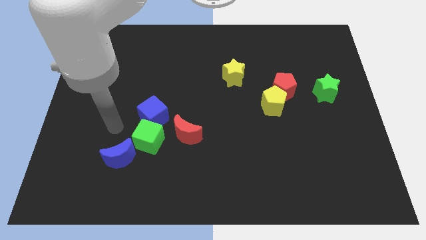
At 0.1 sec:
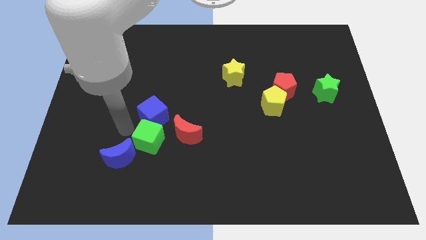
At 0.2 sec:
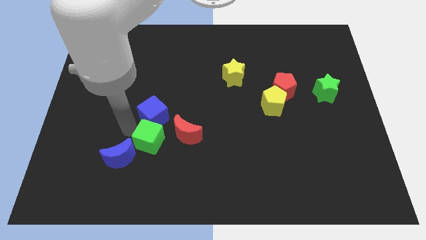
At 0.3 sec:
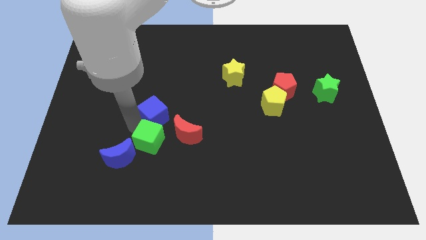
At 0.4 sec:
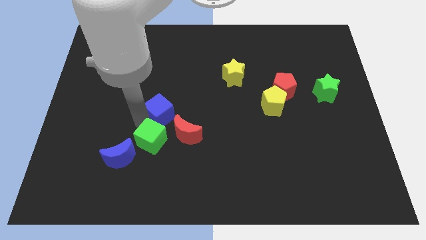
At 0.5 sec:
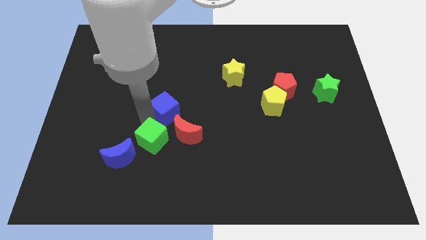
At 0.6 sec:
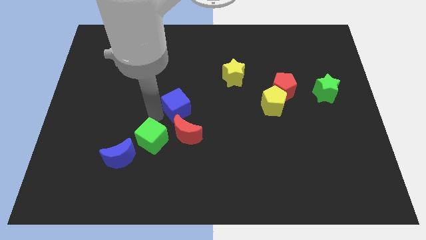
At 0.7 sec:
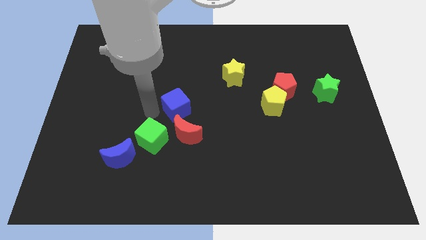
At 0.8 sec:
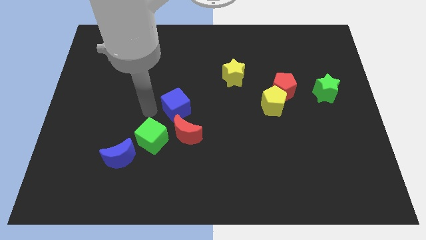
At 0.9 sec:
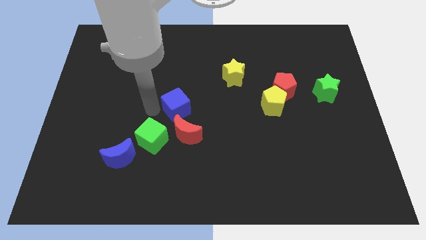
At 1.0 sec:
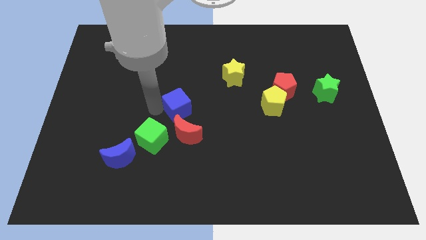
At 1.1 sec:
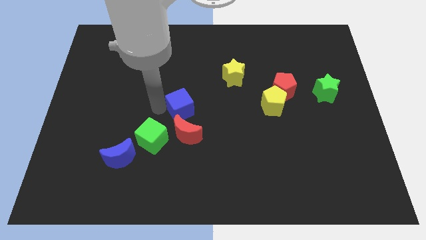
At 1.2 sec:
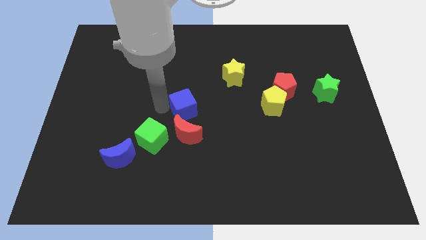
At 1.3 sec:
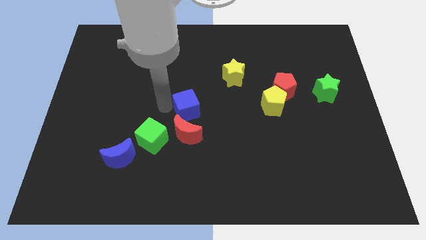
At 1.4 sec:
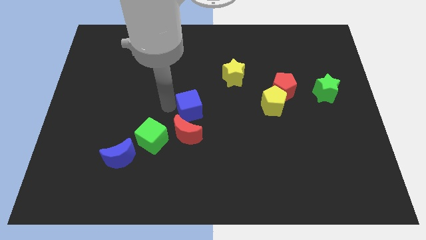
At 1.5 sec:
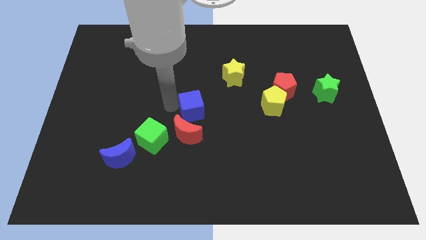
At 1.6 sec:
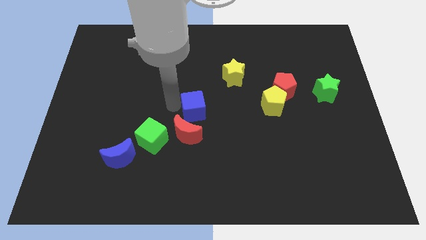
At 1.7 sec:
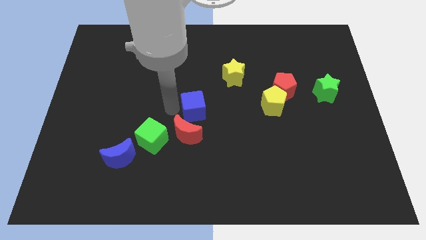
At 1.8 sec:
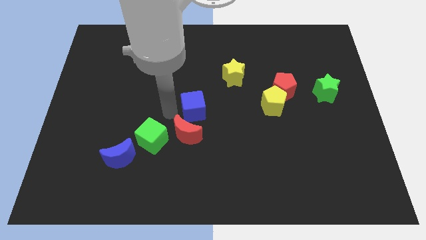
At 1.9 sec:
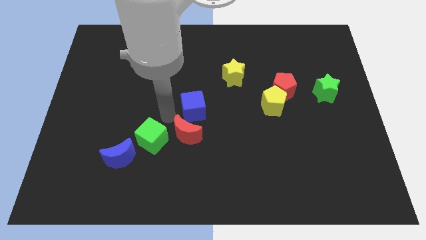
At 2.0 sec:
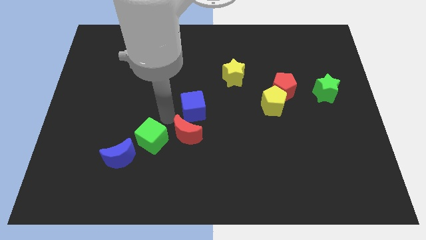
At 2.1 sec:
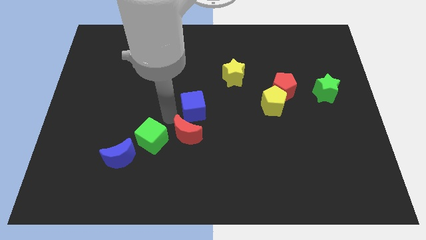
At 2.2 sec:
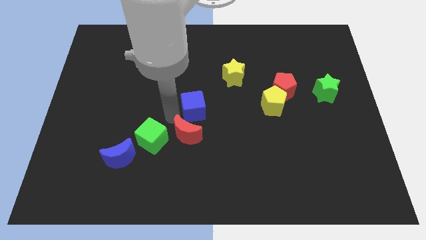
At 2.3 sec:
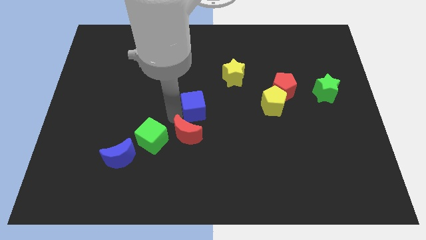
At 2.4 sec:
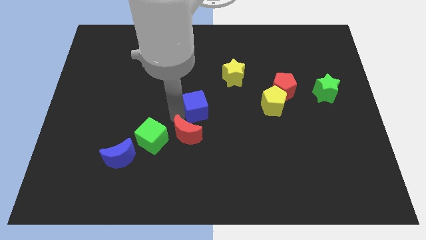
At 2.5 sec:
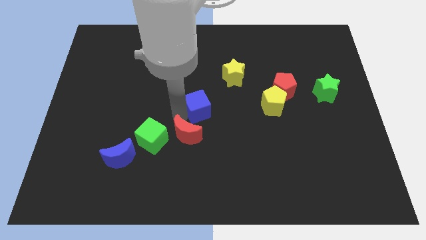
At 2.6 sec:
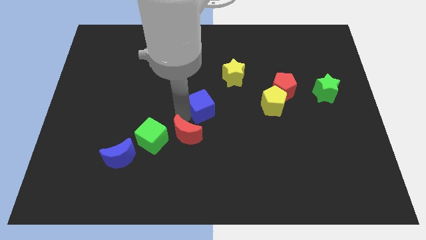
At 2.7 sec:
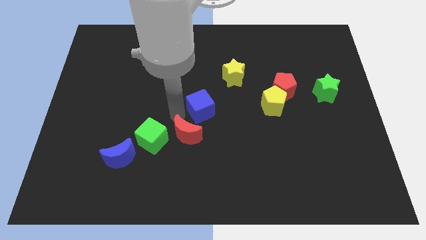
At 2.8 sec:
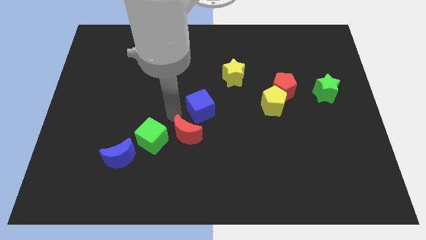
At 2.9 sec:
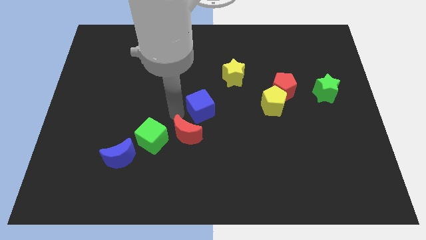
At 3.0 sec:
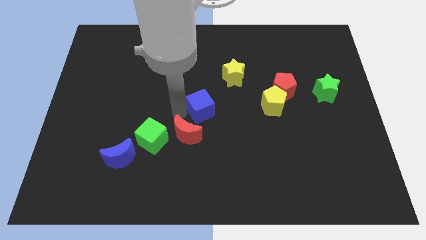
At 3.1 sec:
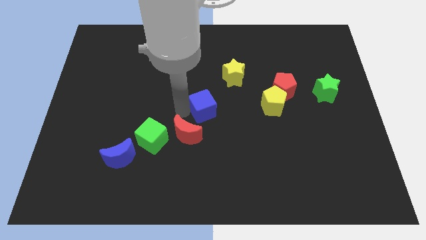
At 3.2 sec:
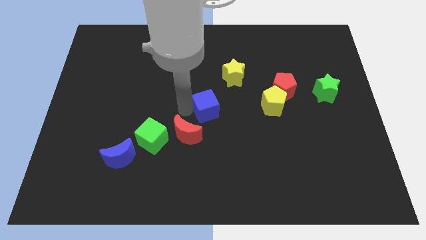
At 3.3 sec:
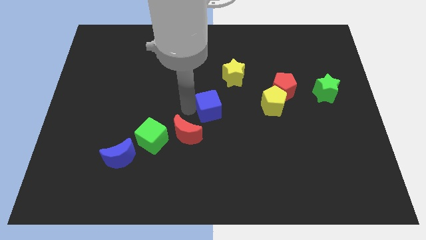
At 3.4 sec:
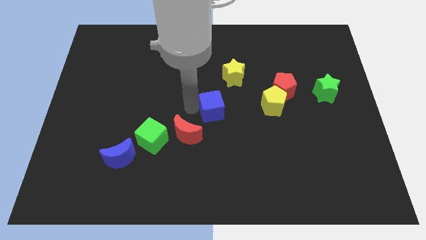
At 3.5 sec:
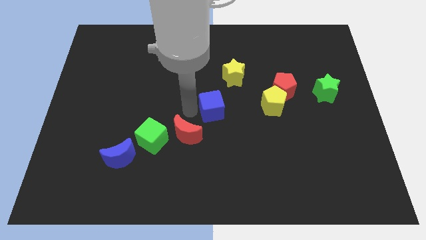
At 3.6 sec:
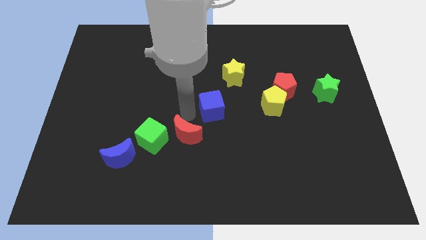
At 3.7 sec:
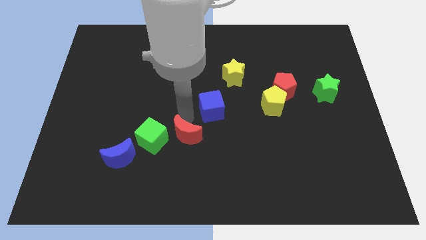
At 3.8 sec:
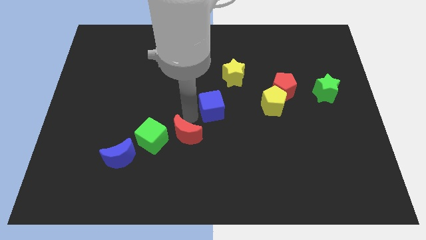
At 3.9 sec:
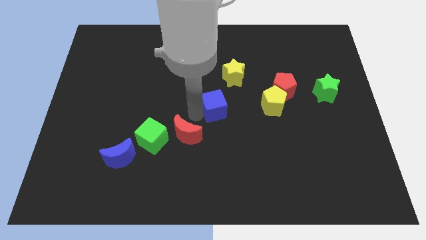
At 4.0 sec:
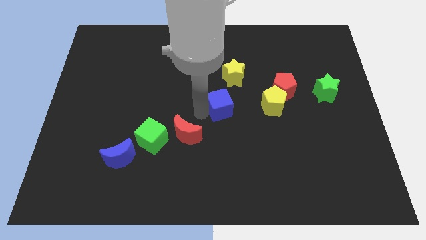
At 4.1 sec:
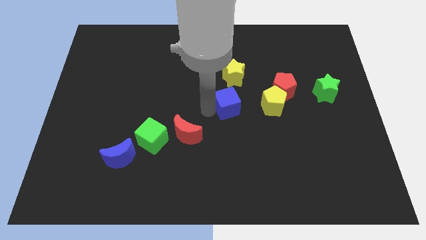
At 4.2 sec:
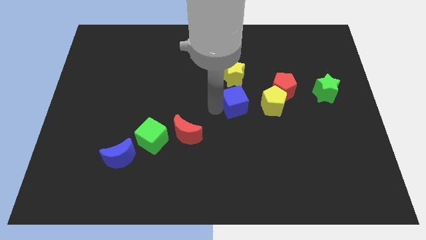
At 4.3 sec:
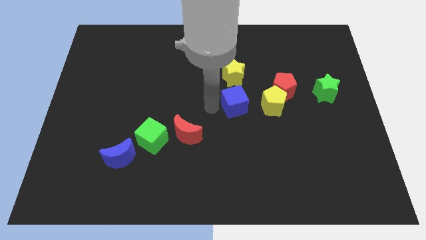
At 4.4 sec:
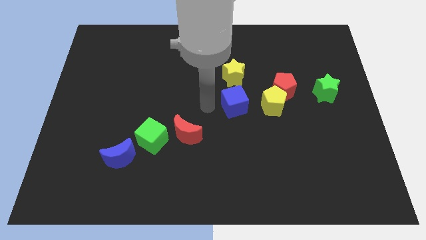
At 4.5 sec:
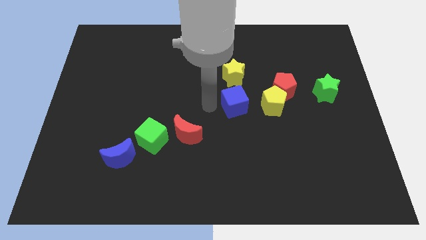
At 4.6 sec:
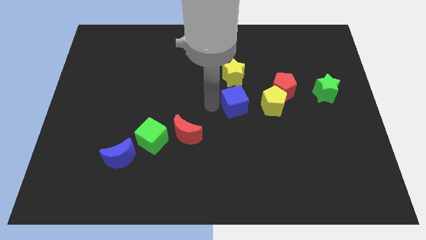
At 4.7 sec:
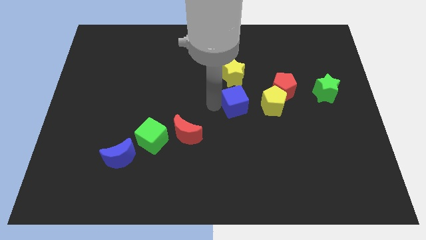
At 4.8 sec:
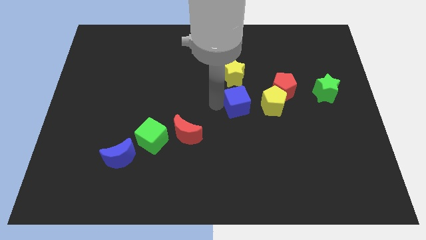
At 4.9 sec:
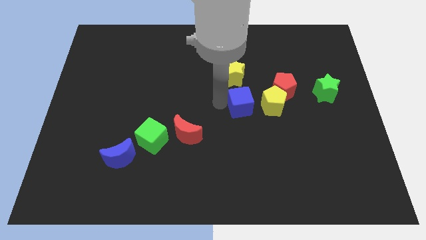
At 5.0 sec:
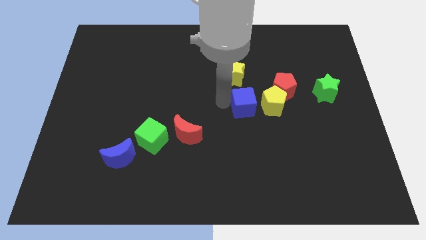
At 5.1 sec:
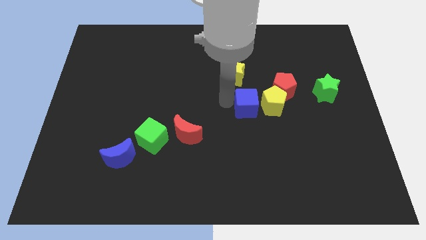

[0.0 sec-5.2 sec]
push the blue cube close to the yellow pentagon

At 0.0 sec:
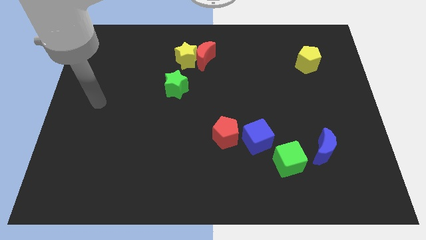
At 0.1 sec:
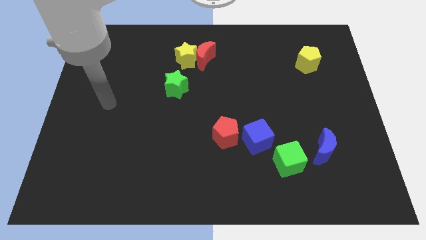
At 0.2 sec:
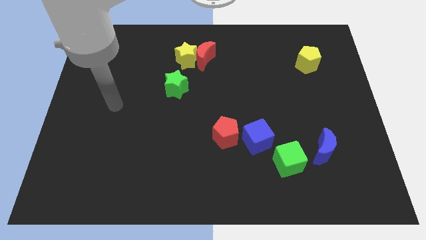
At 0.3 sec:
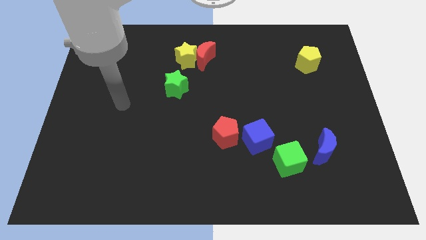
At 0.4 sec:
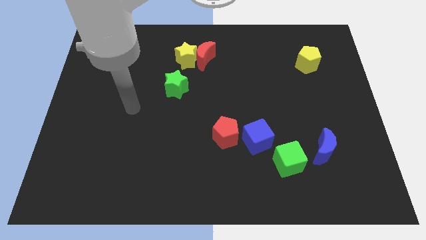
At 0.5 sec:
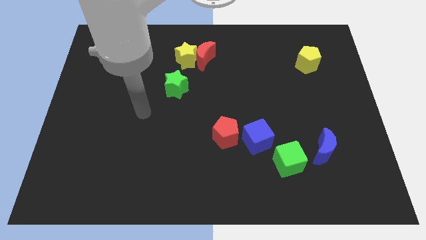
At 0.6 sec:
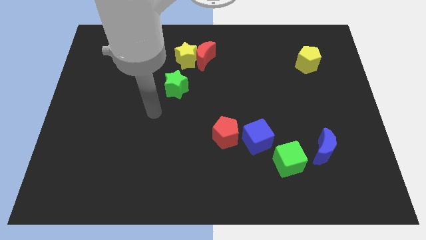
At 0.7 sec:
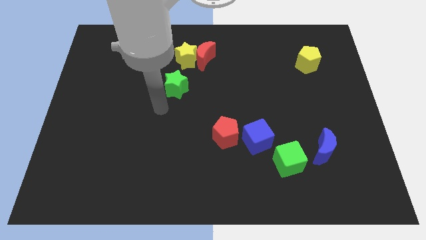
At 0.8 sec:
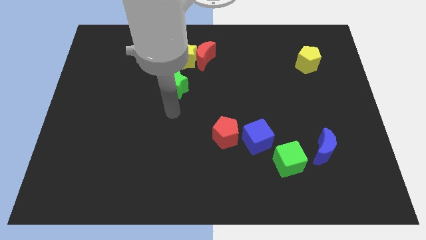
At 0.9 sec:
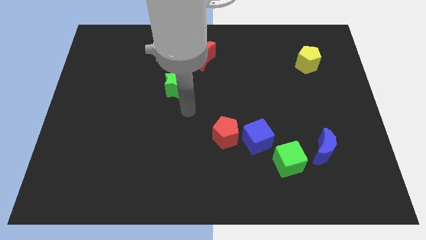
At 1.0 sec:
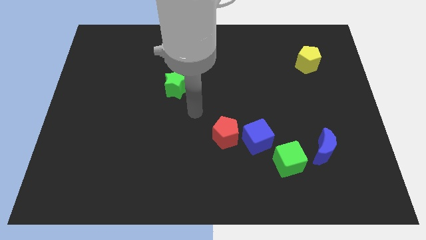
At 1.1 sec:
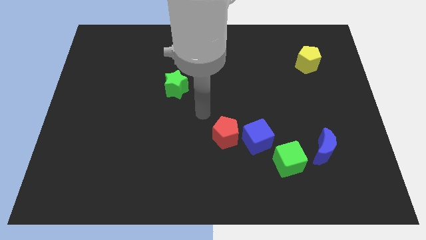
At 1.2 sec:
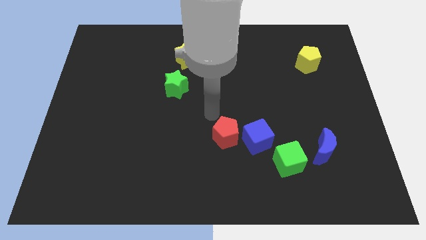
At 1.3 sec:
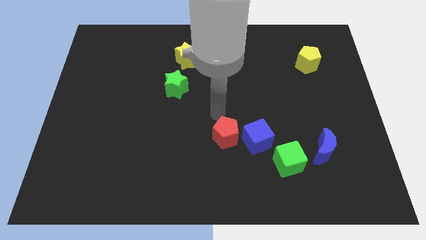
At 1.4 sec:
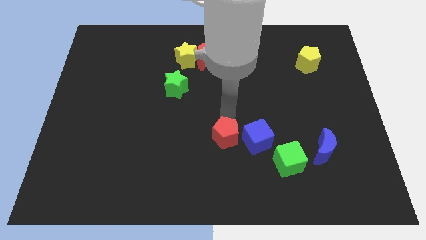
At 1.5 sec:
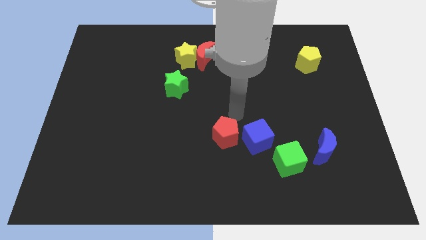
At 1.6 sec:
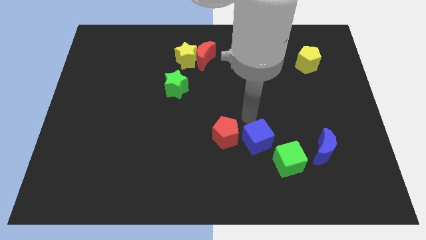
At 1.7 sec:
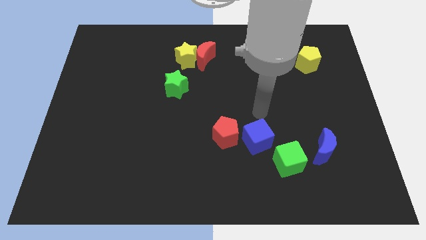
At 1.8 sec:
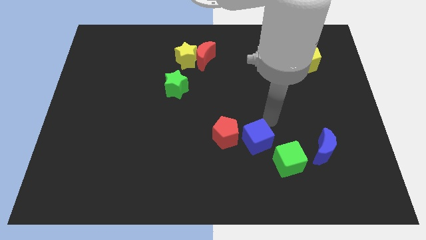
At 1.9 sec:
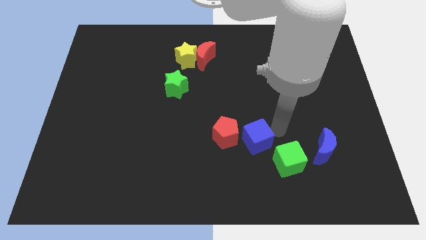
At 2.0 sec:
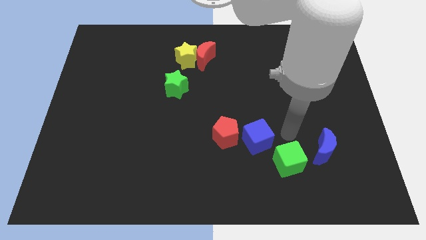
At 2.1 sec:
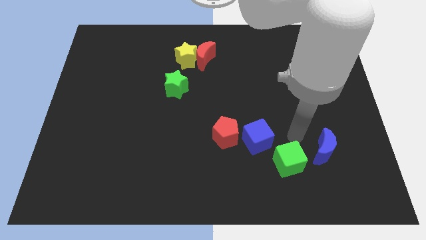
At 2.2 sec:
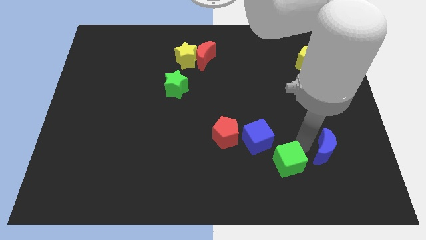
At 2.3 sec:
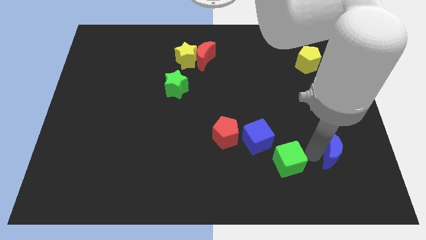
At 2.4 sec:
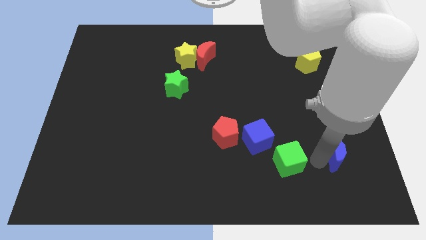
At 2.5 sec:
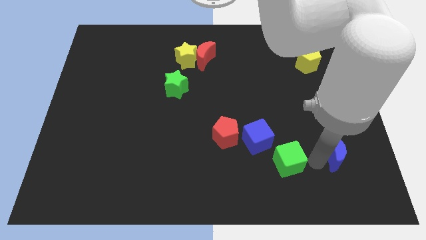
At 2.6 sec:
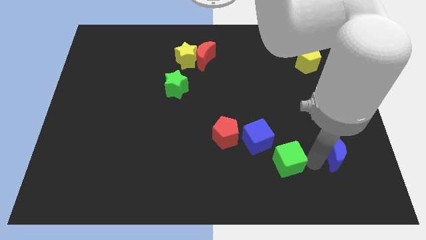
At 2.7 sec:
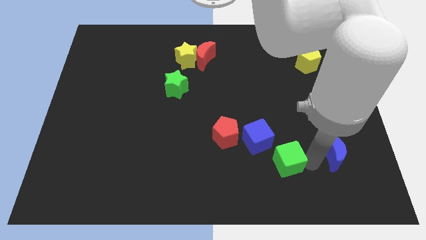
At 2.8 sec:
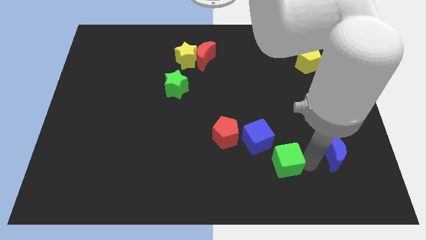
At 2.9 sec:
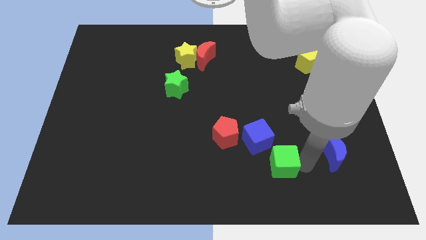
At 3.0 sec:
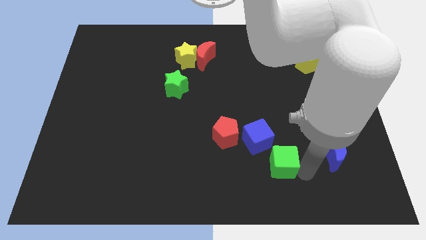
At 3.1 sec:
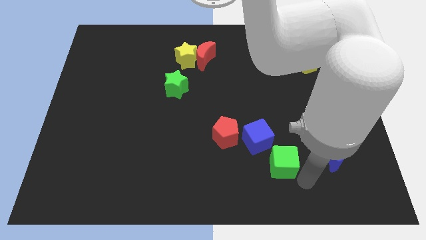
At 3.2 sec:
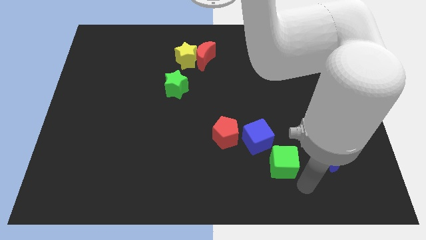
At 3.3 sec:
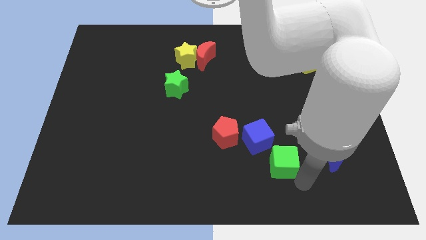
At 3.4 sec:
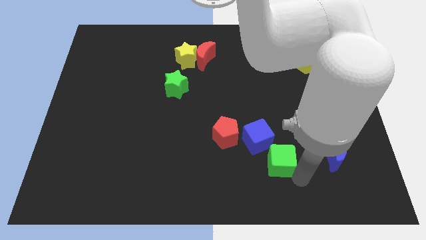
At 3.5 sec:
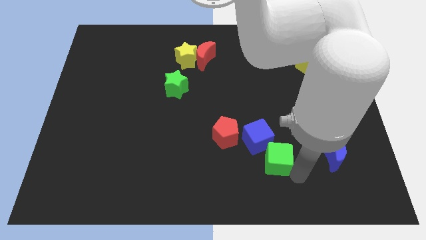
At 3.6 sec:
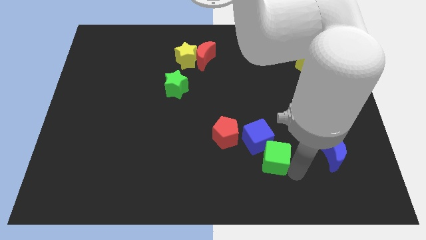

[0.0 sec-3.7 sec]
slide the green cube next to the blue cube
